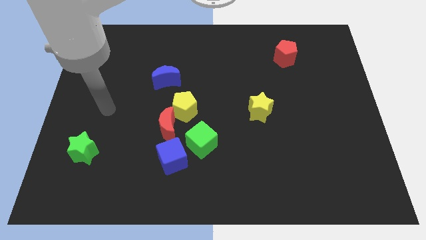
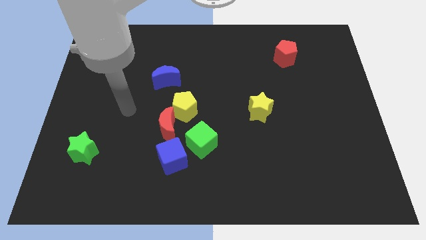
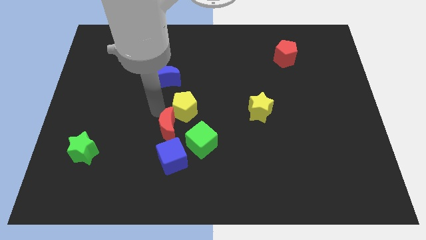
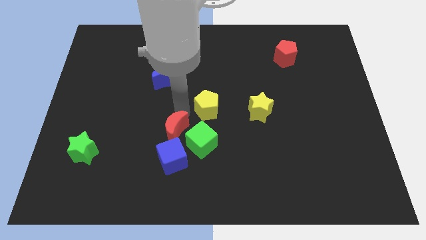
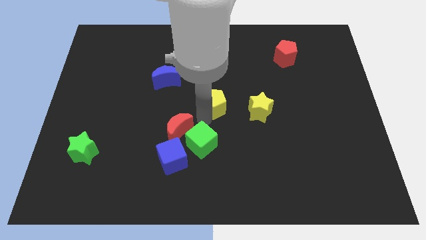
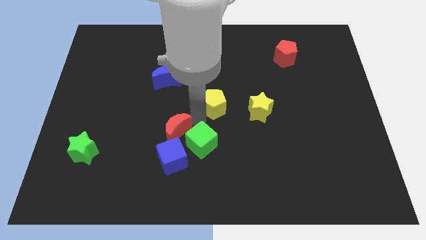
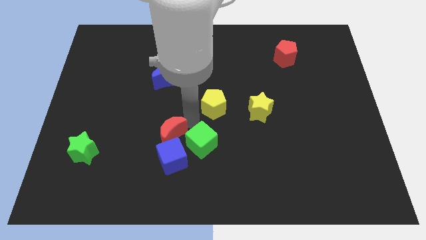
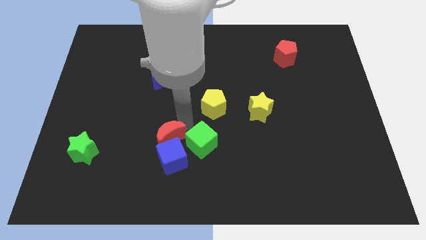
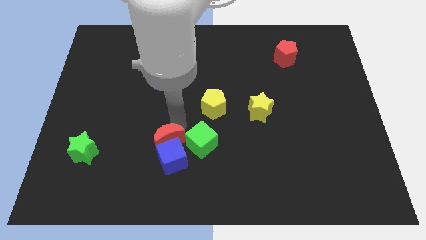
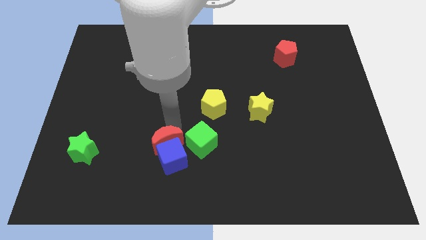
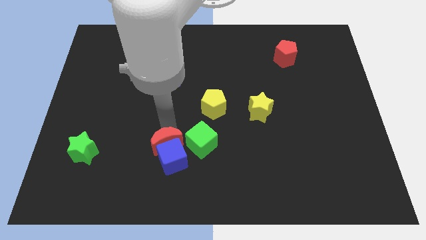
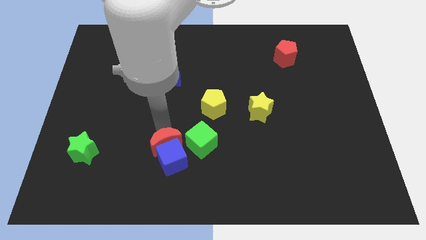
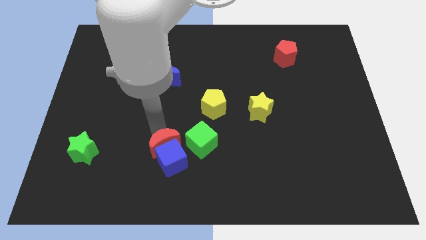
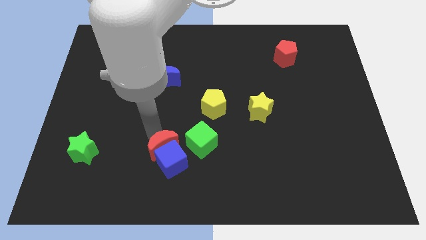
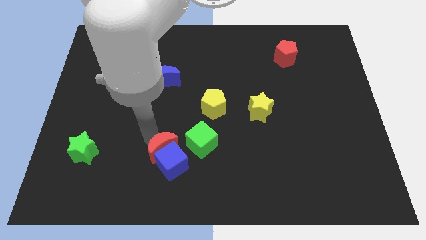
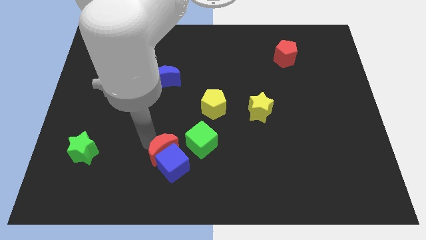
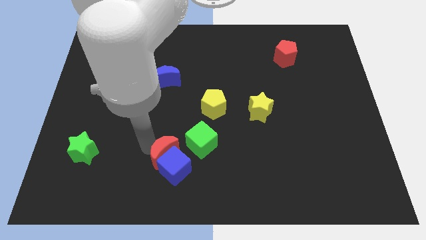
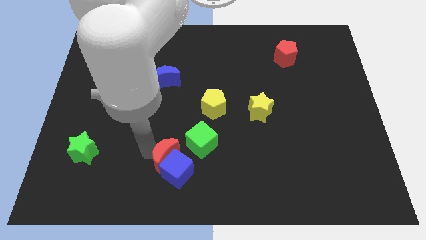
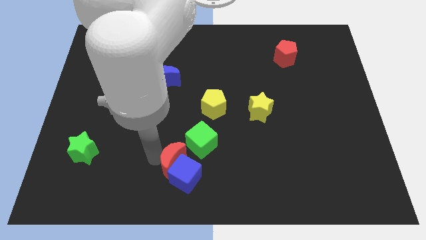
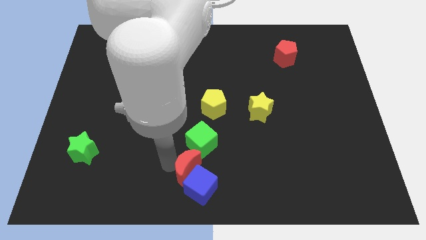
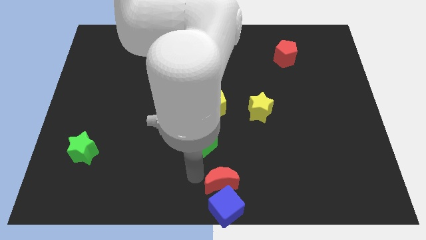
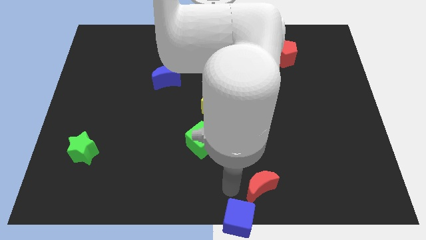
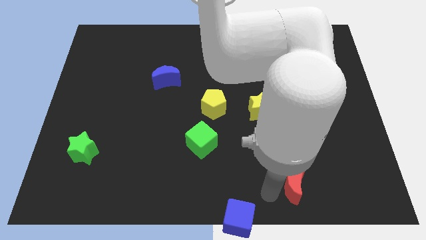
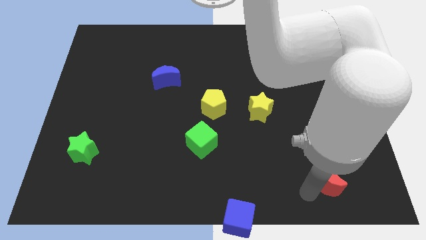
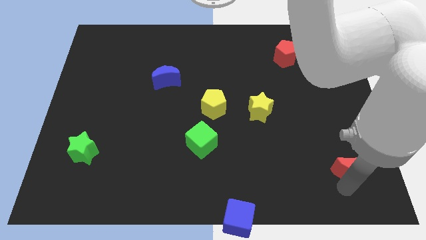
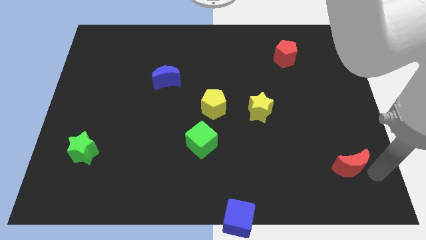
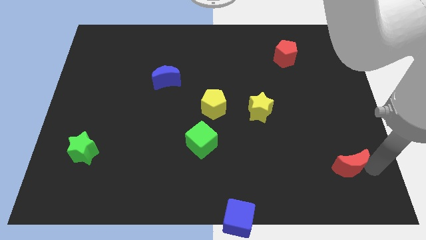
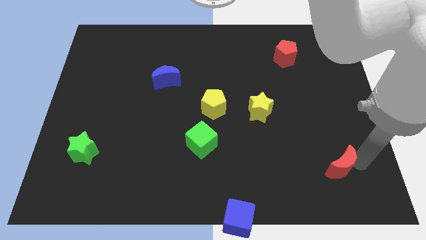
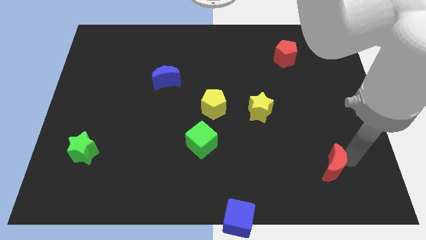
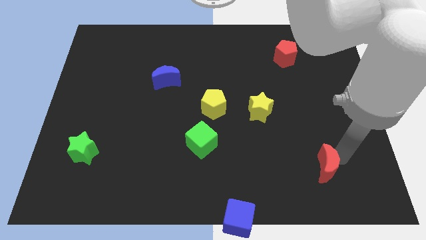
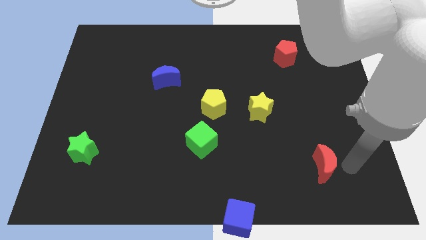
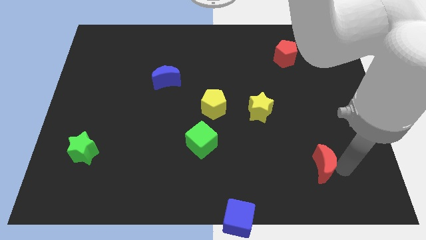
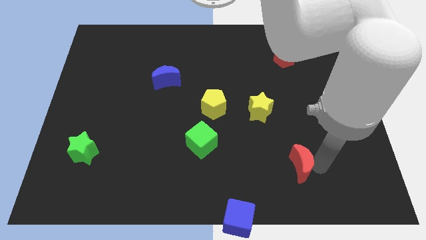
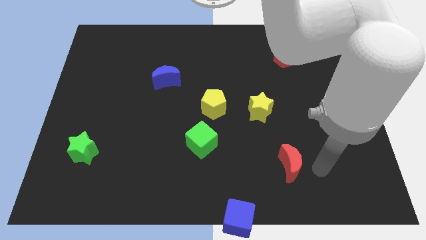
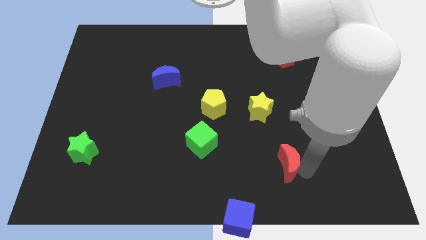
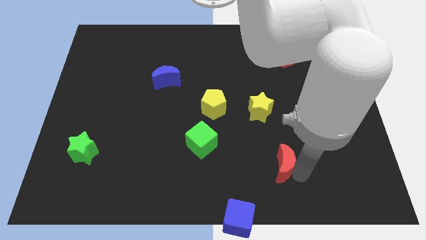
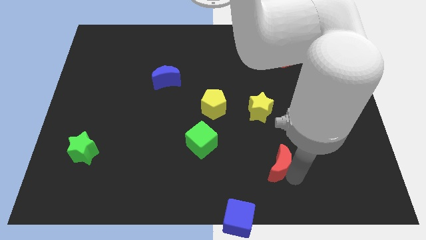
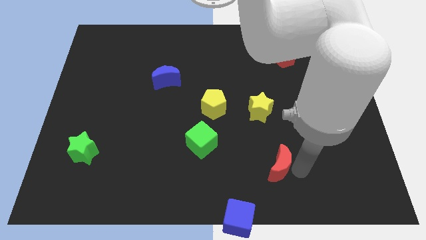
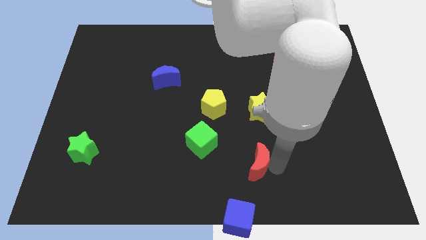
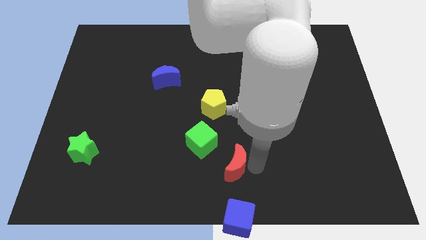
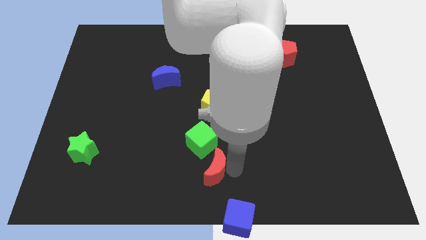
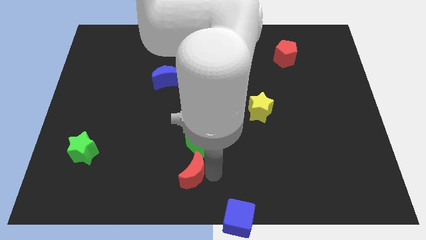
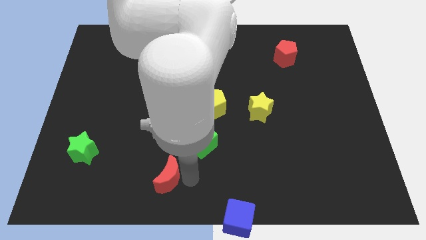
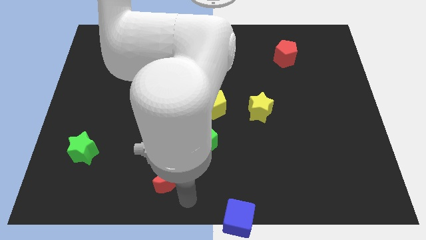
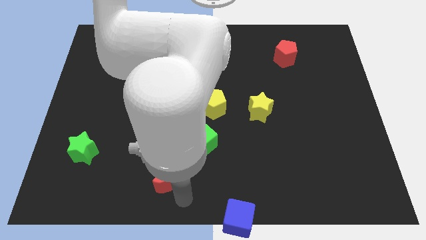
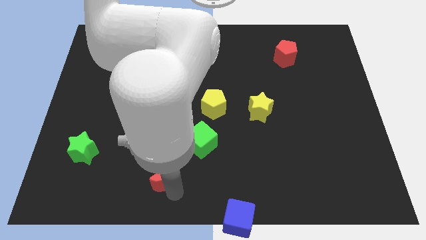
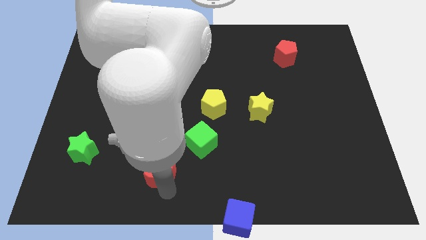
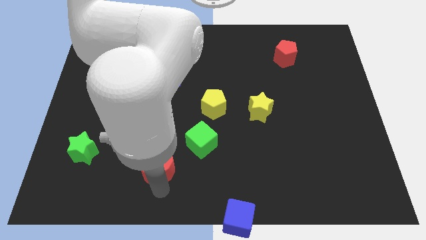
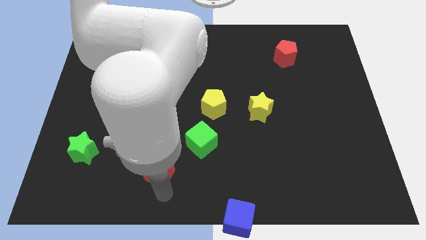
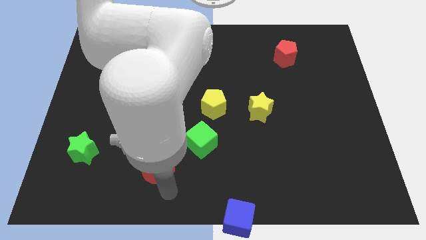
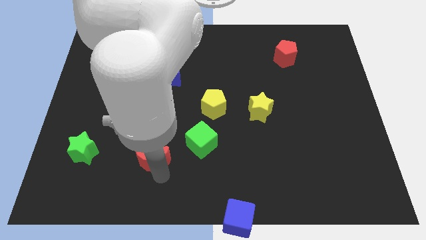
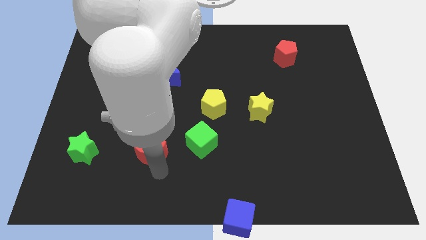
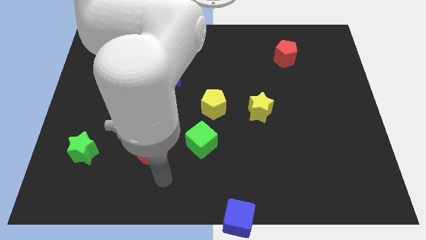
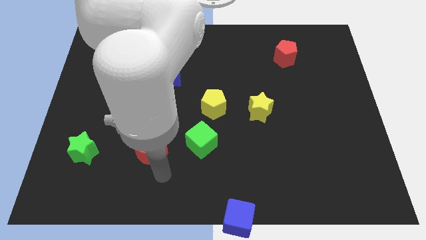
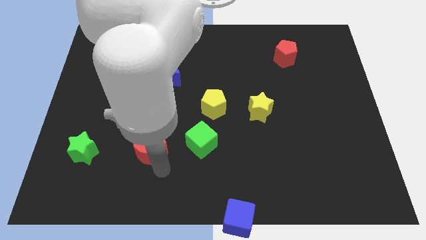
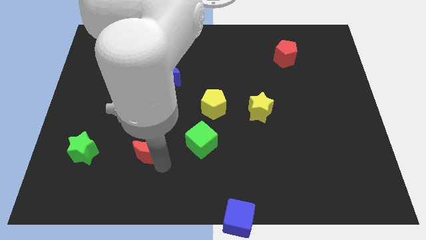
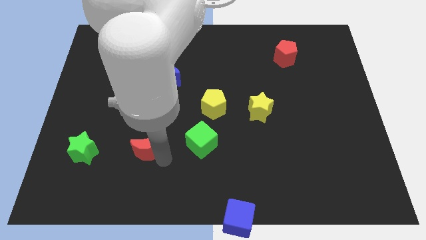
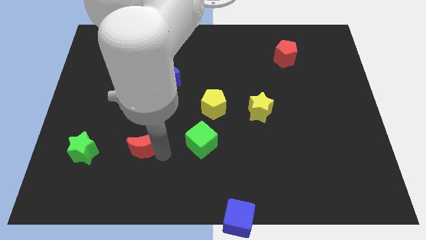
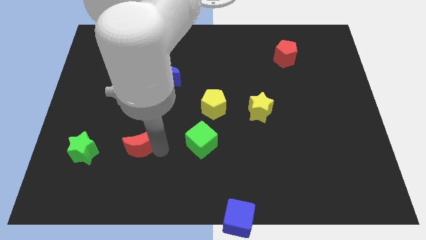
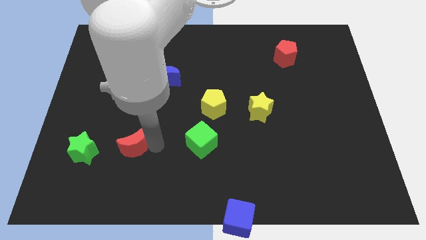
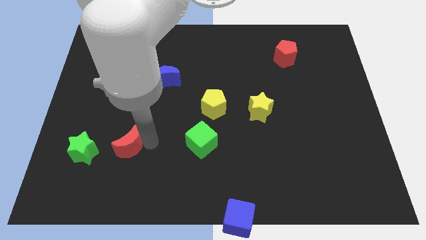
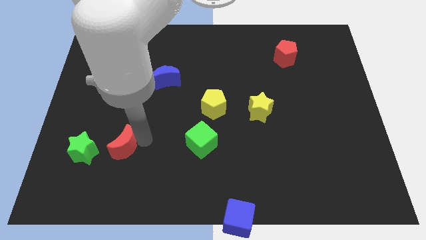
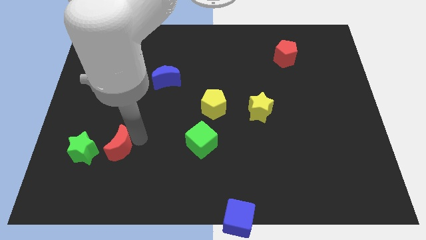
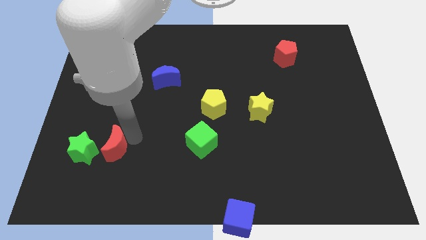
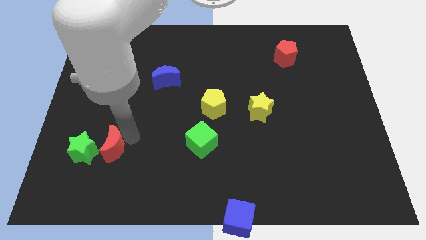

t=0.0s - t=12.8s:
put the red moon to the green star

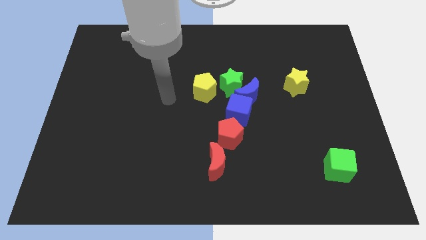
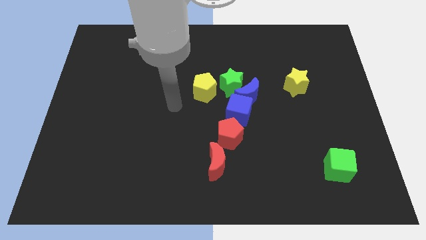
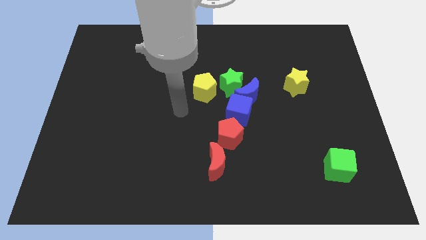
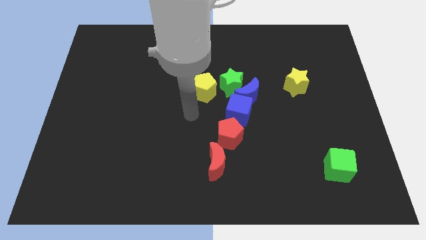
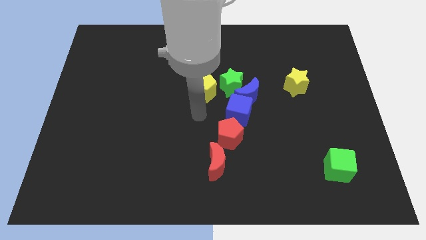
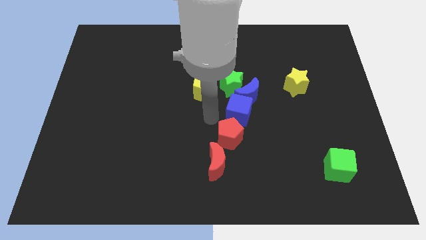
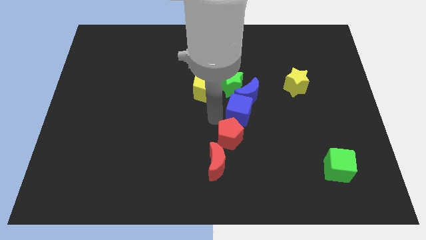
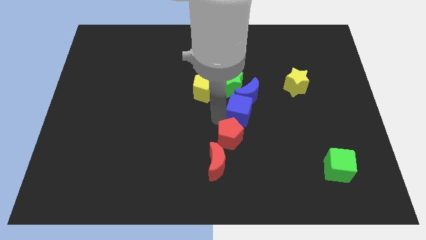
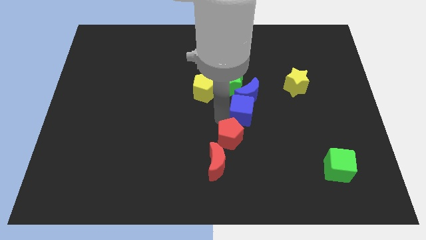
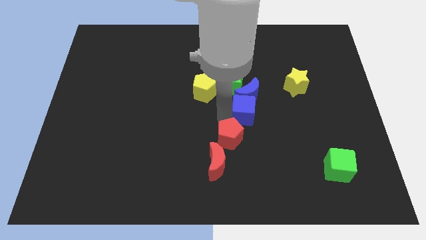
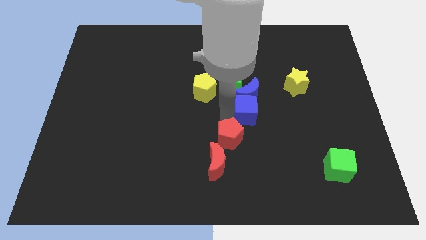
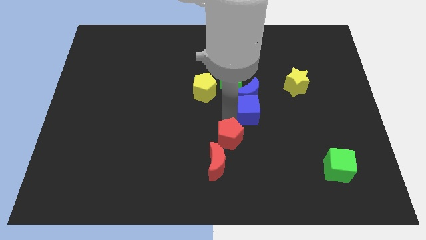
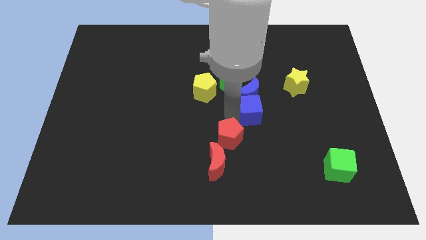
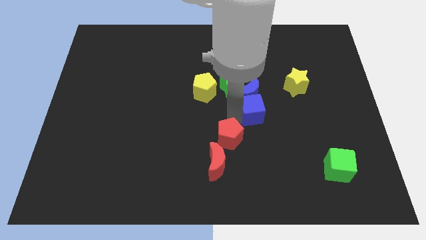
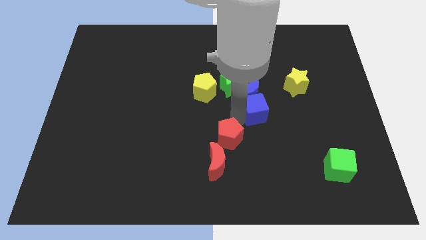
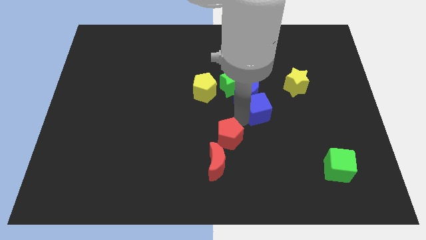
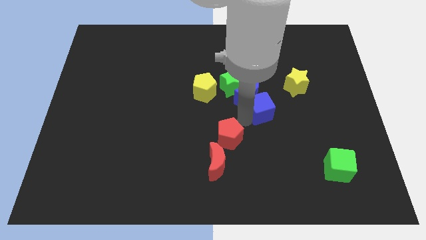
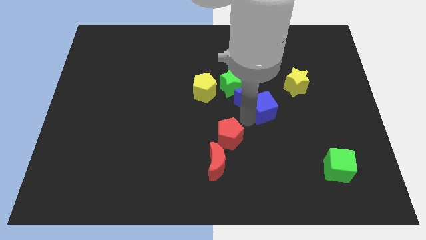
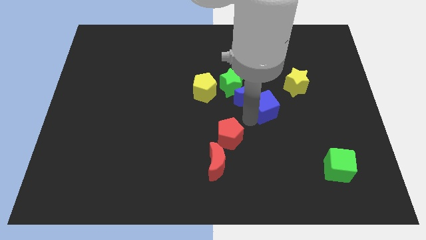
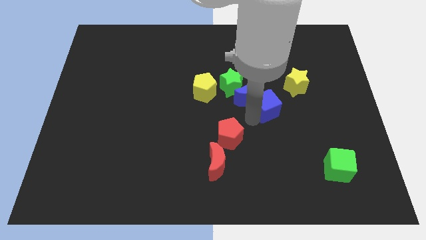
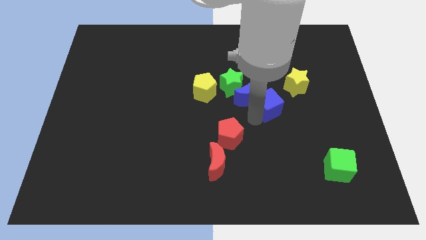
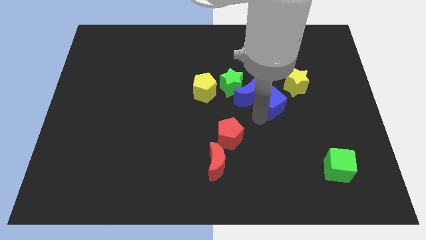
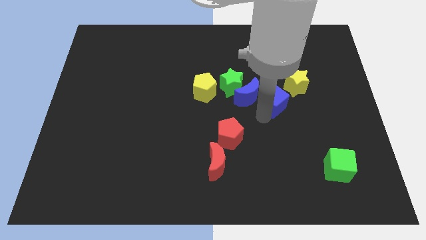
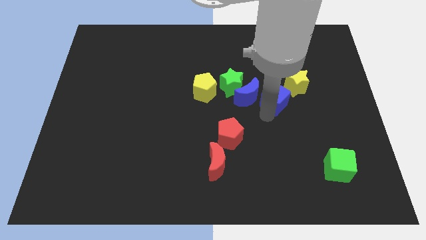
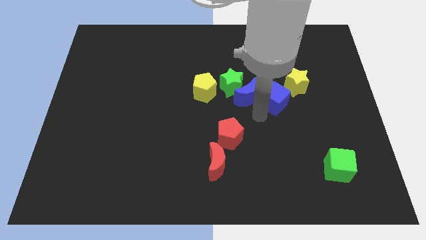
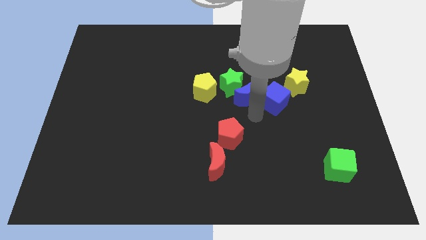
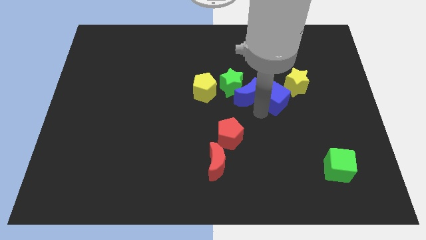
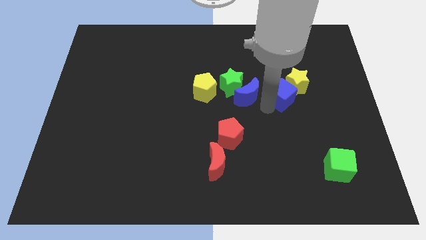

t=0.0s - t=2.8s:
push the blue cube close to the yellow star
